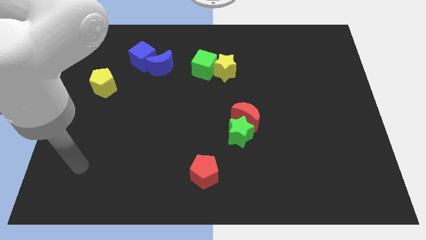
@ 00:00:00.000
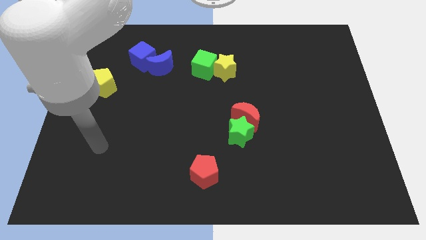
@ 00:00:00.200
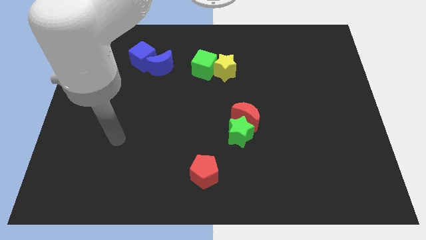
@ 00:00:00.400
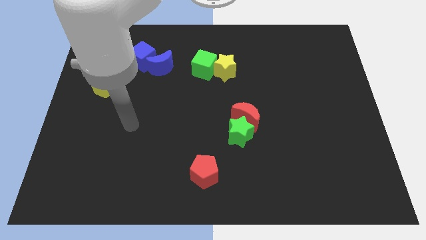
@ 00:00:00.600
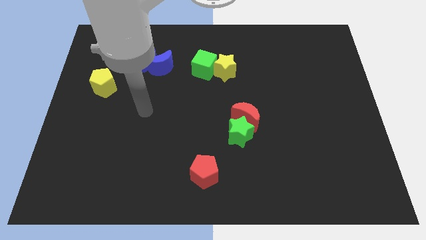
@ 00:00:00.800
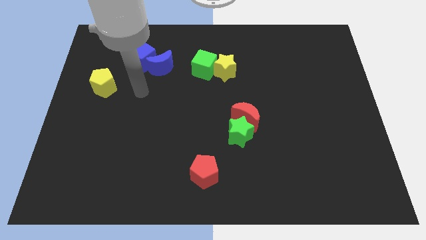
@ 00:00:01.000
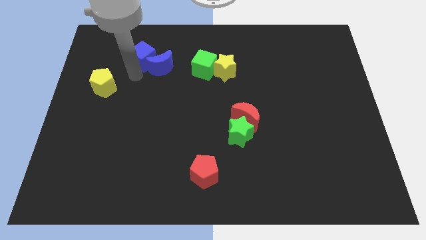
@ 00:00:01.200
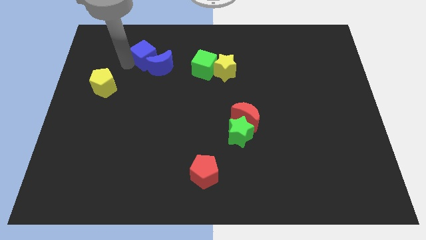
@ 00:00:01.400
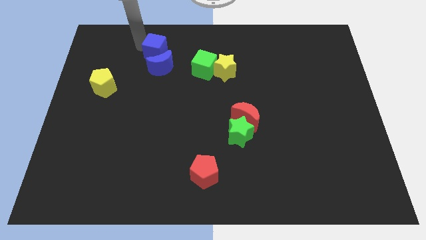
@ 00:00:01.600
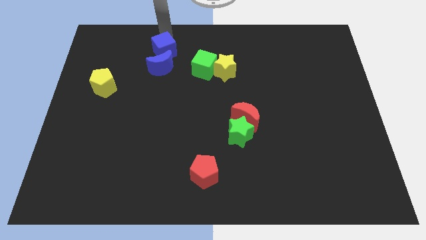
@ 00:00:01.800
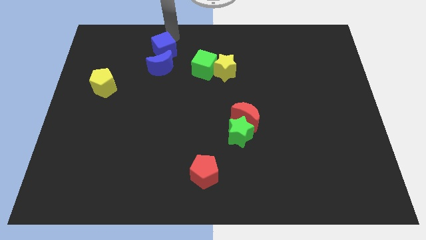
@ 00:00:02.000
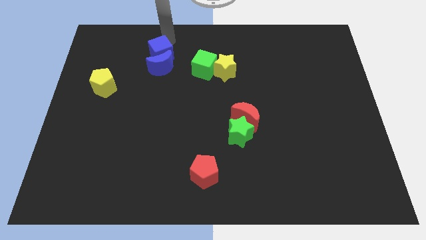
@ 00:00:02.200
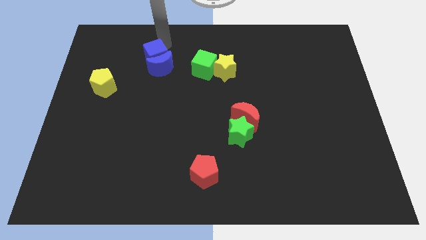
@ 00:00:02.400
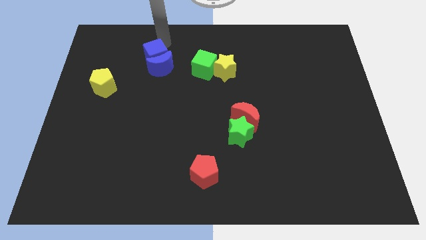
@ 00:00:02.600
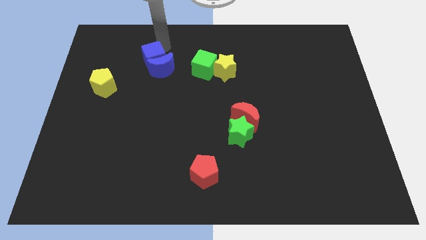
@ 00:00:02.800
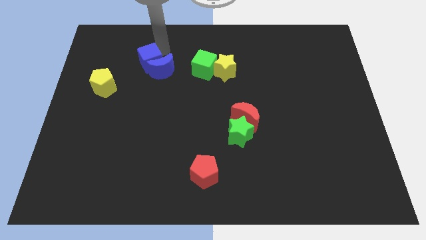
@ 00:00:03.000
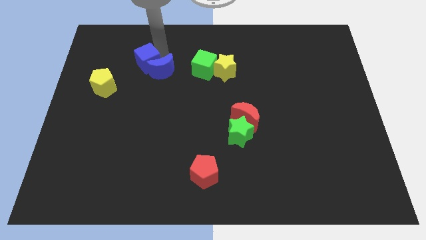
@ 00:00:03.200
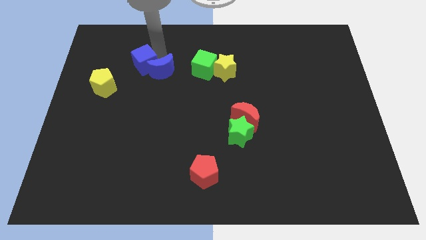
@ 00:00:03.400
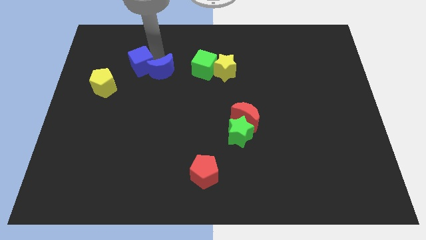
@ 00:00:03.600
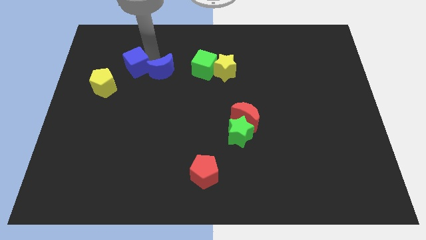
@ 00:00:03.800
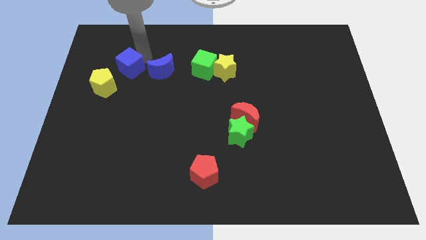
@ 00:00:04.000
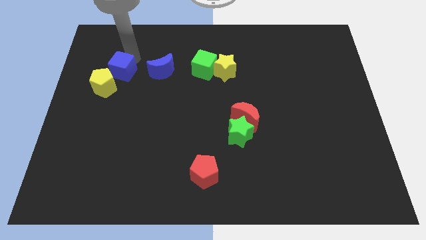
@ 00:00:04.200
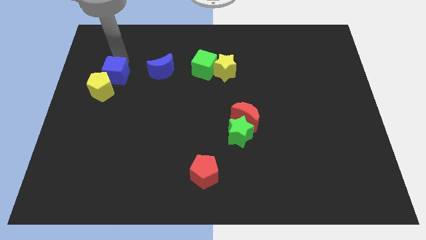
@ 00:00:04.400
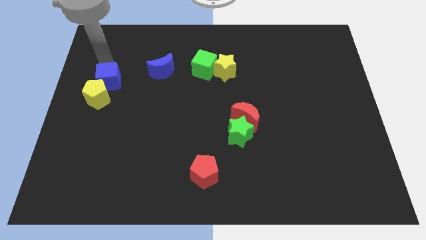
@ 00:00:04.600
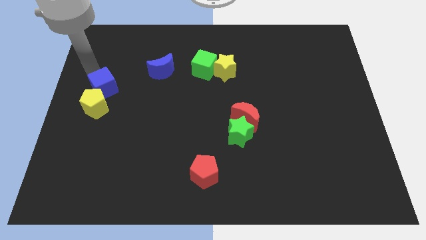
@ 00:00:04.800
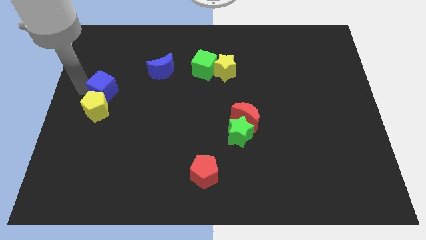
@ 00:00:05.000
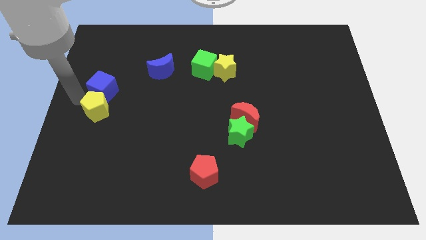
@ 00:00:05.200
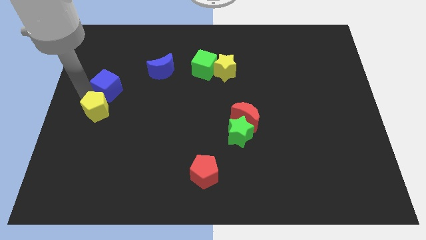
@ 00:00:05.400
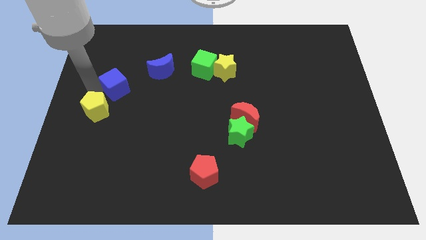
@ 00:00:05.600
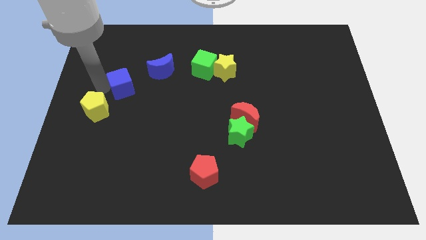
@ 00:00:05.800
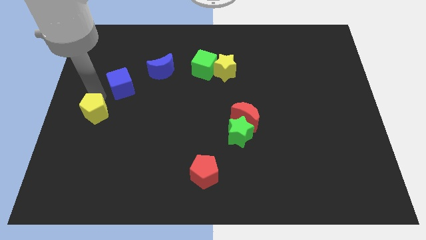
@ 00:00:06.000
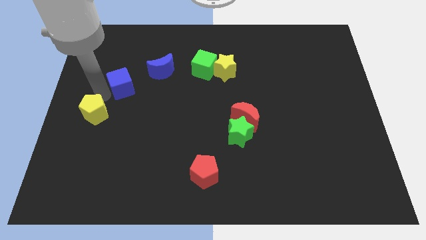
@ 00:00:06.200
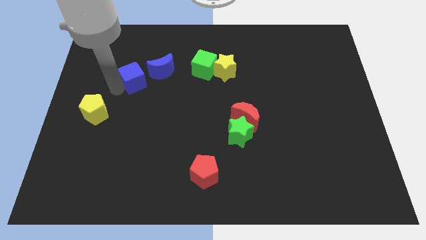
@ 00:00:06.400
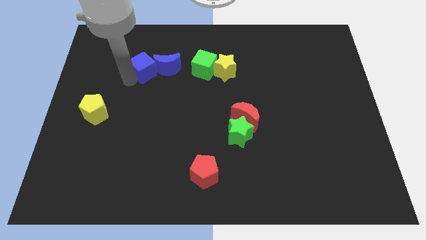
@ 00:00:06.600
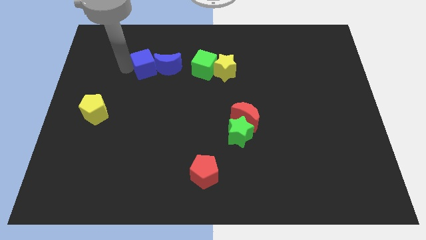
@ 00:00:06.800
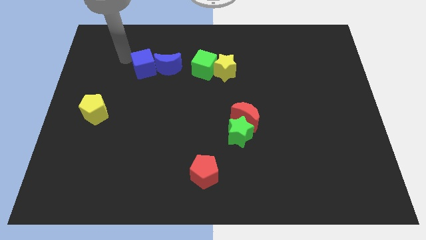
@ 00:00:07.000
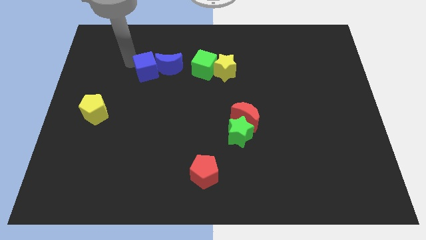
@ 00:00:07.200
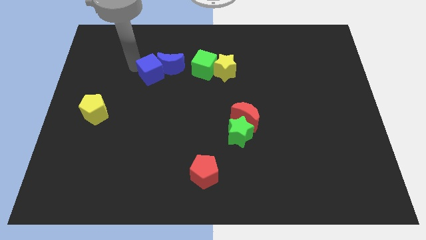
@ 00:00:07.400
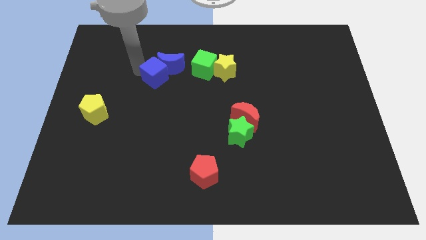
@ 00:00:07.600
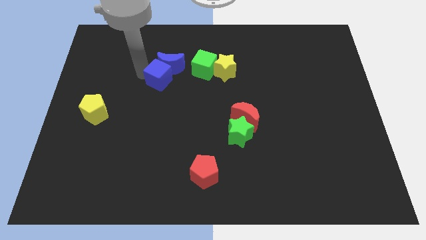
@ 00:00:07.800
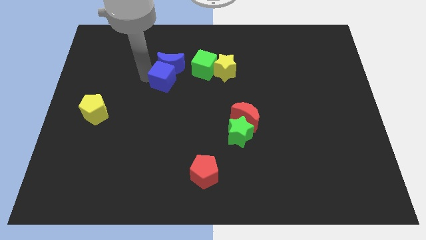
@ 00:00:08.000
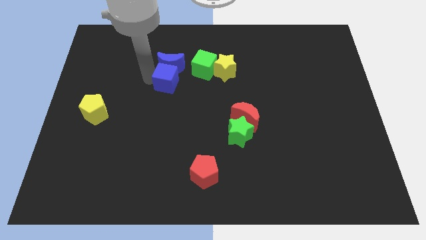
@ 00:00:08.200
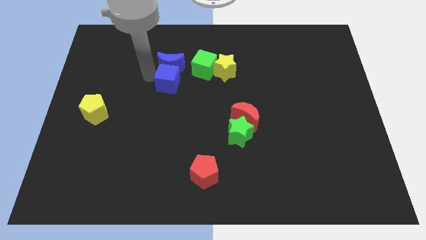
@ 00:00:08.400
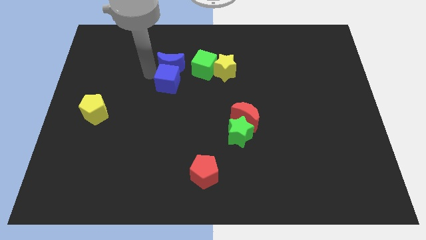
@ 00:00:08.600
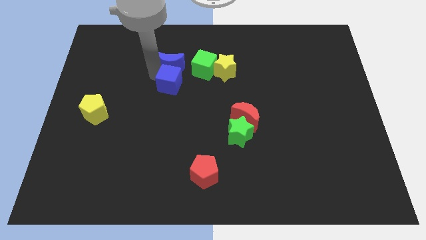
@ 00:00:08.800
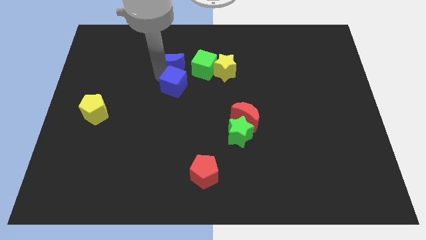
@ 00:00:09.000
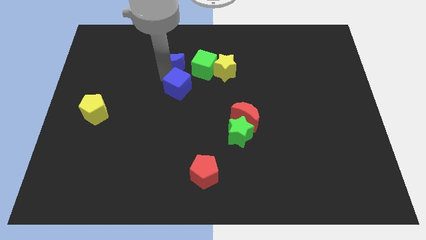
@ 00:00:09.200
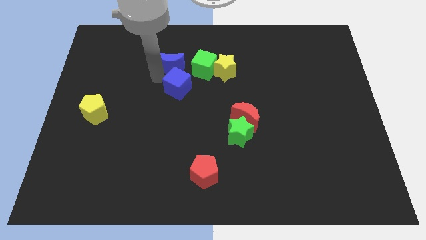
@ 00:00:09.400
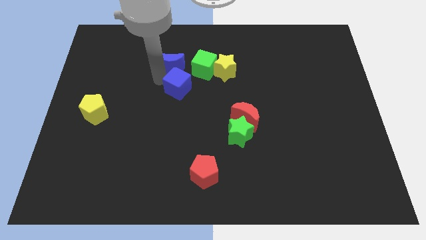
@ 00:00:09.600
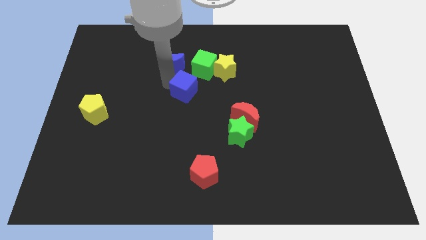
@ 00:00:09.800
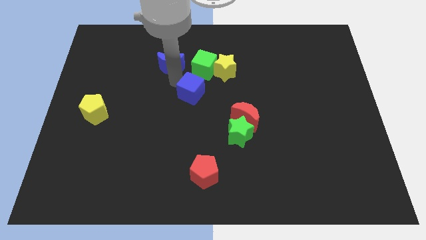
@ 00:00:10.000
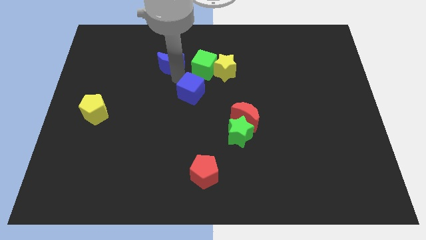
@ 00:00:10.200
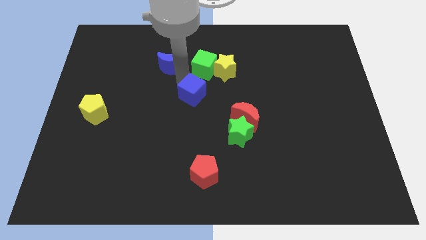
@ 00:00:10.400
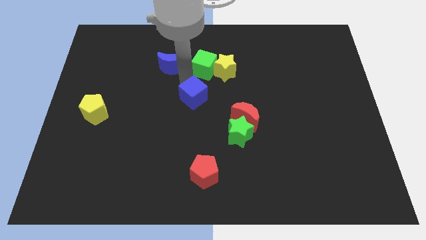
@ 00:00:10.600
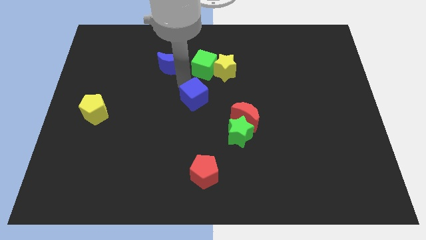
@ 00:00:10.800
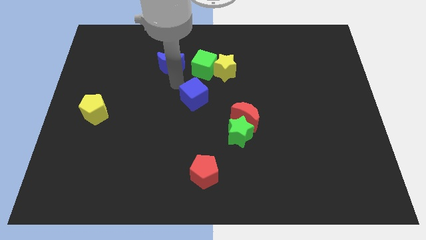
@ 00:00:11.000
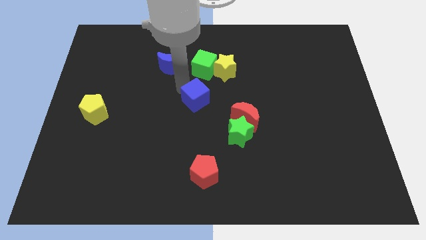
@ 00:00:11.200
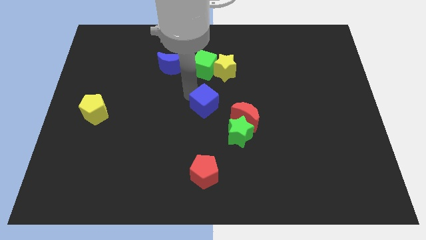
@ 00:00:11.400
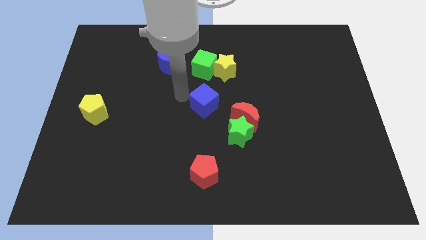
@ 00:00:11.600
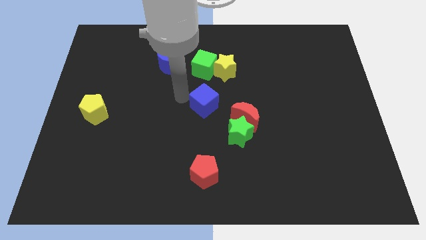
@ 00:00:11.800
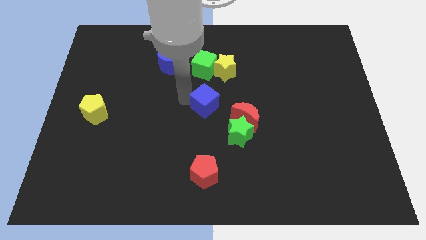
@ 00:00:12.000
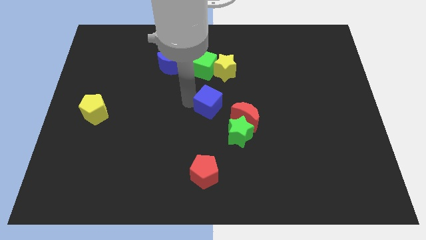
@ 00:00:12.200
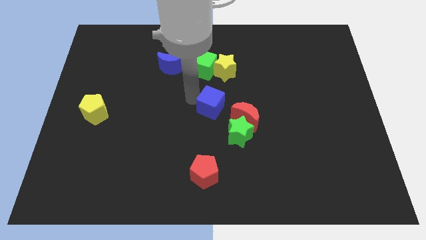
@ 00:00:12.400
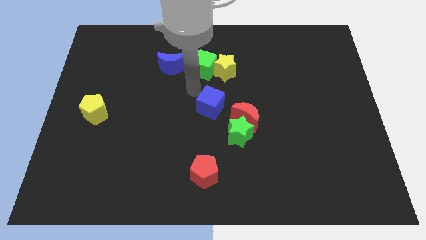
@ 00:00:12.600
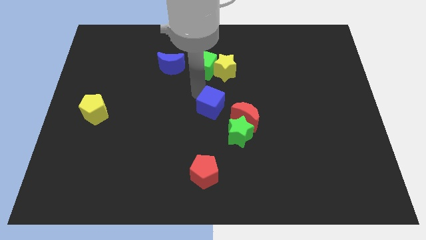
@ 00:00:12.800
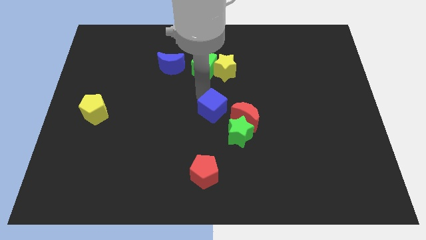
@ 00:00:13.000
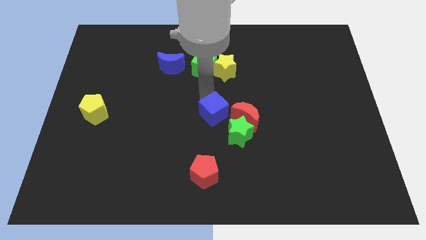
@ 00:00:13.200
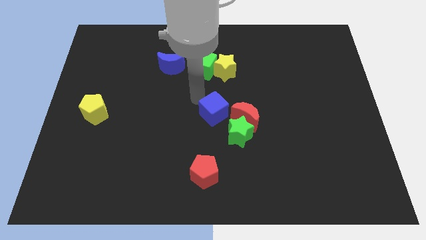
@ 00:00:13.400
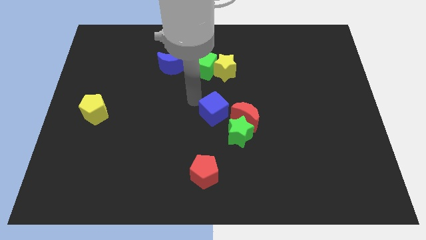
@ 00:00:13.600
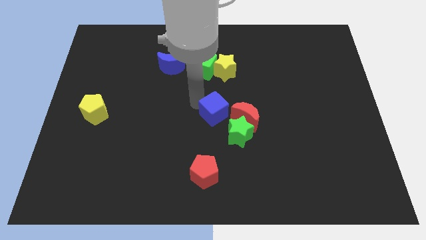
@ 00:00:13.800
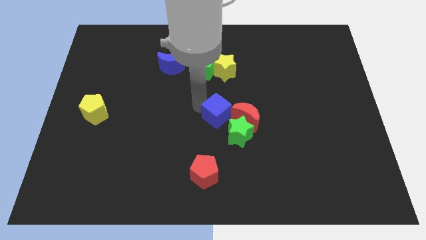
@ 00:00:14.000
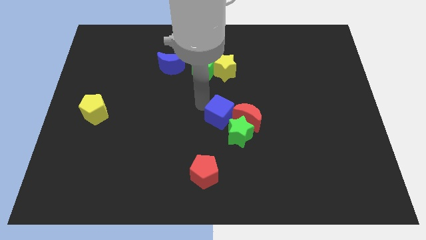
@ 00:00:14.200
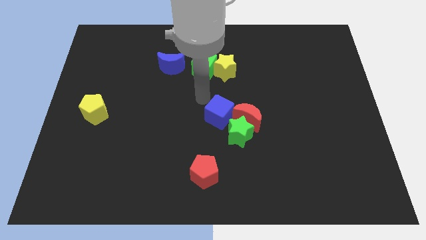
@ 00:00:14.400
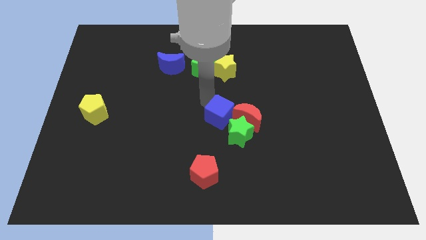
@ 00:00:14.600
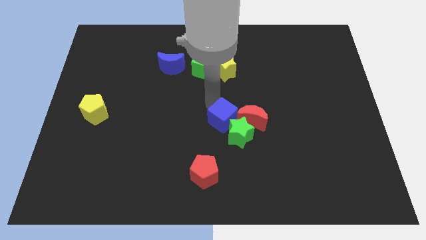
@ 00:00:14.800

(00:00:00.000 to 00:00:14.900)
slide the blue cube towards the green star
